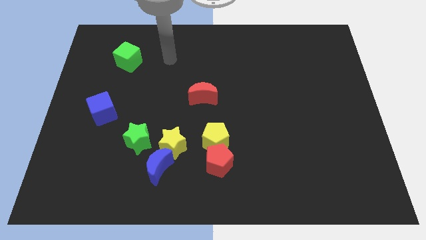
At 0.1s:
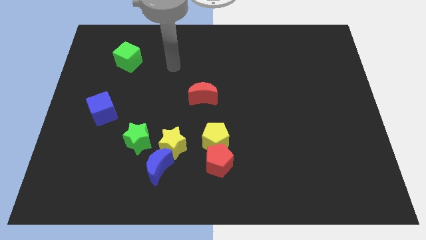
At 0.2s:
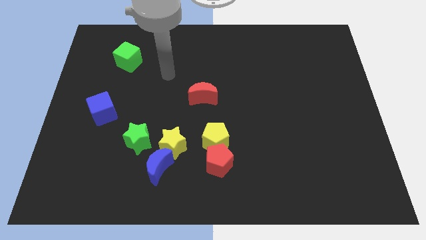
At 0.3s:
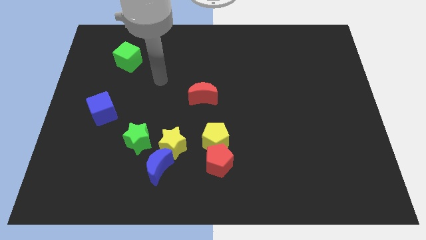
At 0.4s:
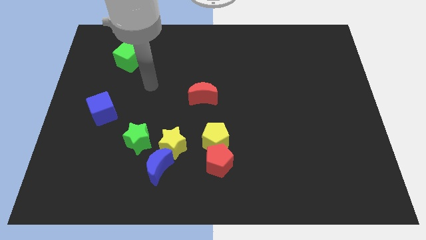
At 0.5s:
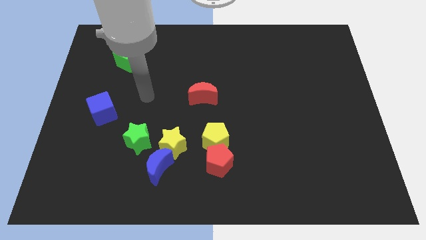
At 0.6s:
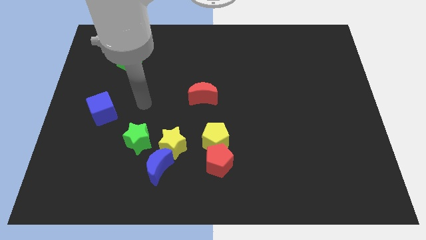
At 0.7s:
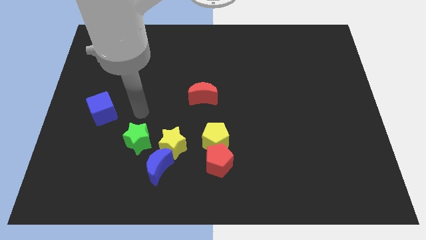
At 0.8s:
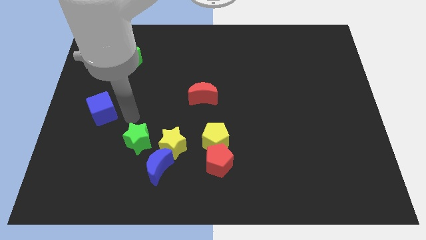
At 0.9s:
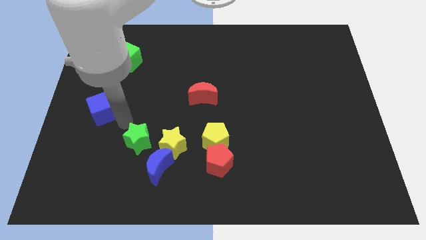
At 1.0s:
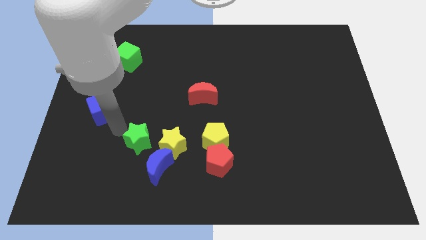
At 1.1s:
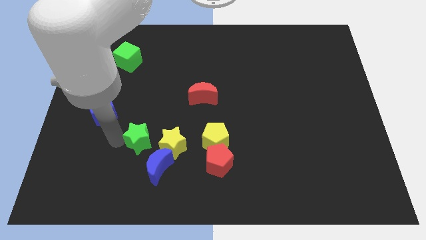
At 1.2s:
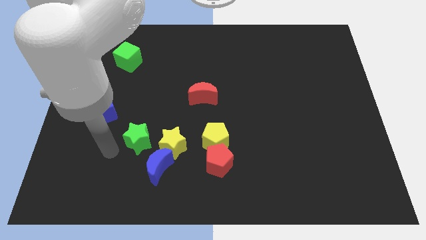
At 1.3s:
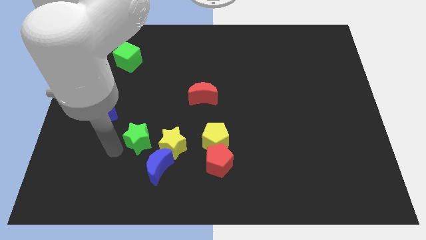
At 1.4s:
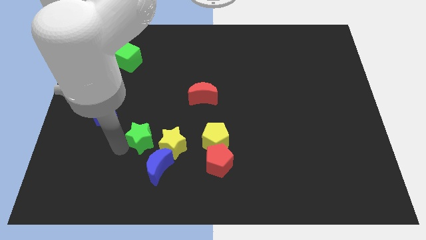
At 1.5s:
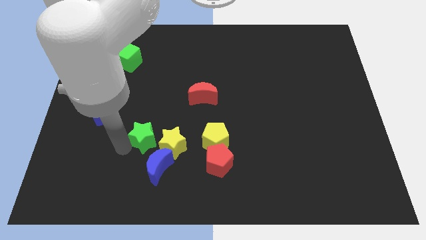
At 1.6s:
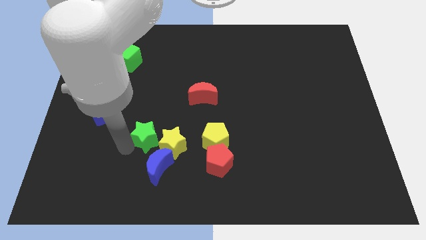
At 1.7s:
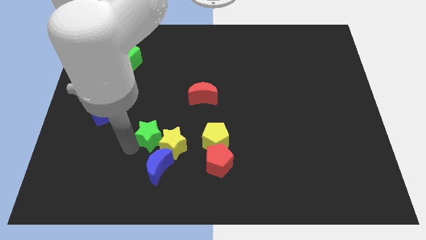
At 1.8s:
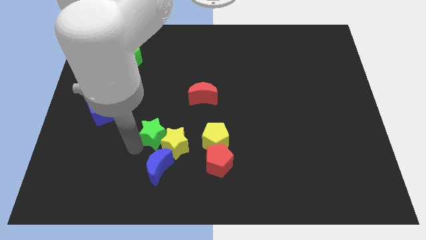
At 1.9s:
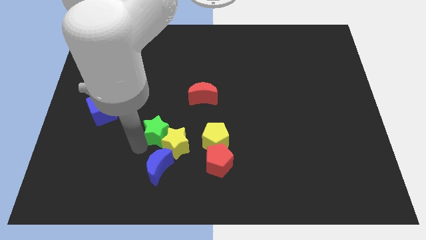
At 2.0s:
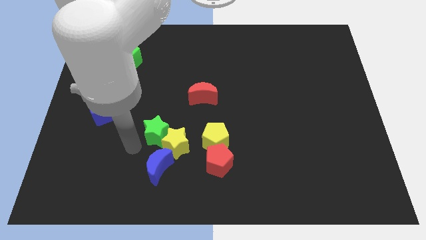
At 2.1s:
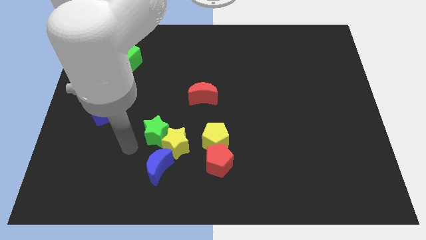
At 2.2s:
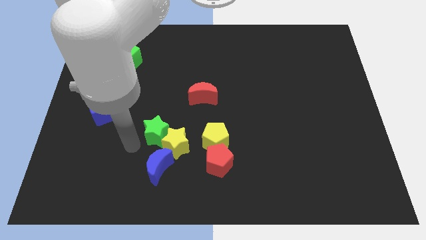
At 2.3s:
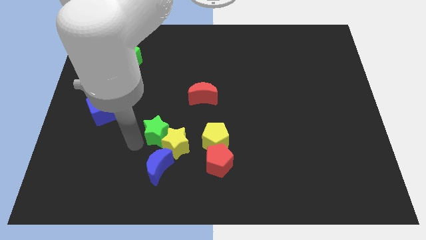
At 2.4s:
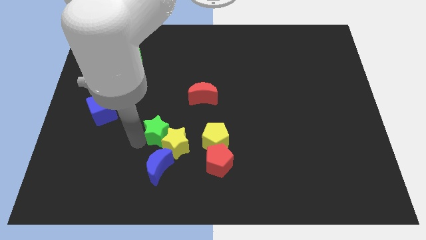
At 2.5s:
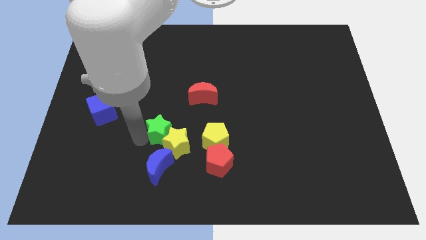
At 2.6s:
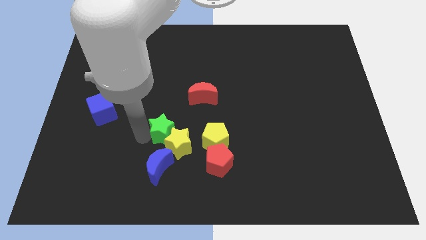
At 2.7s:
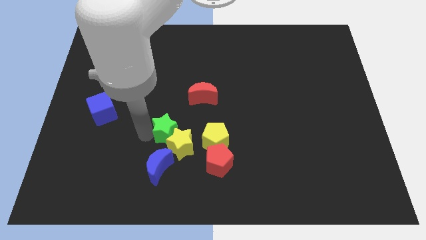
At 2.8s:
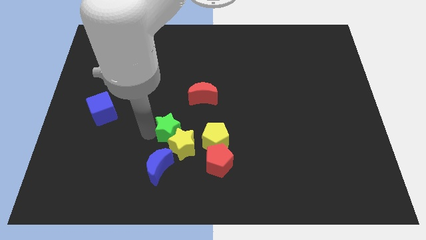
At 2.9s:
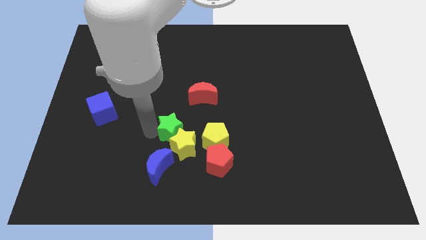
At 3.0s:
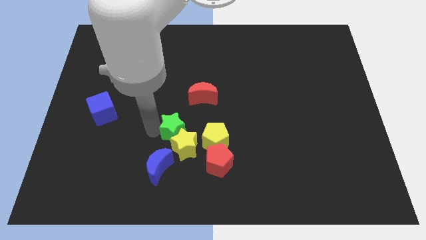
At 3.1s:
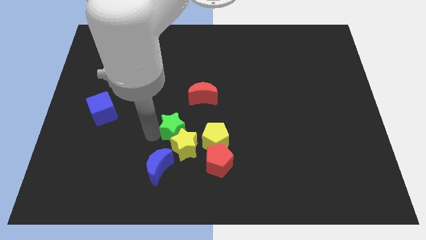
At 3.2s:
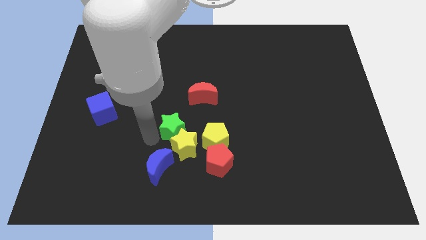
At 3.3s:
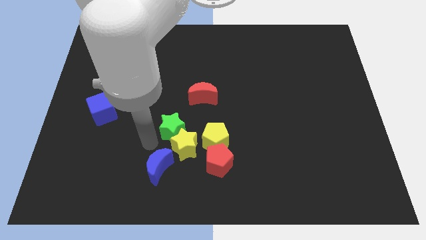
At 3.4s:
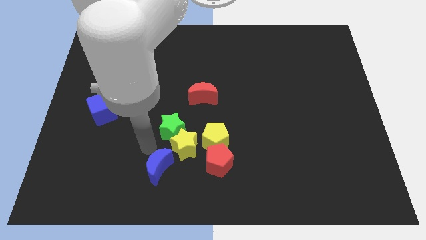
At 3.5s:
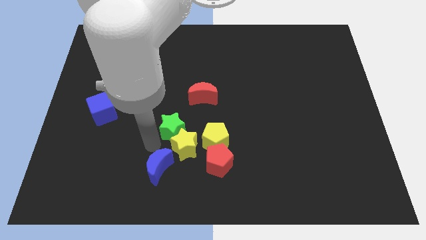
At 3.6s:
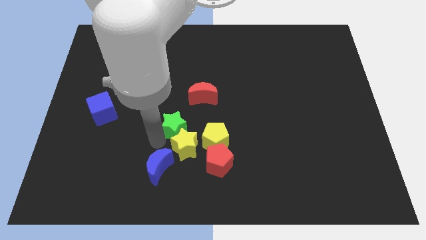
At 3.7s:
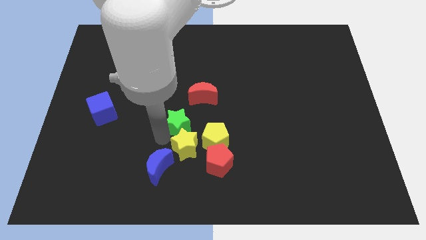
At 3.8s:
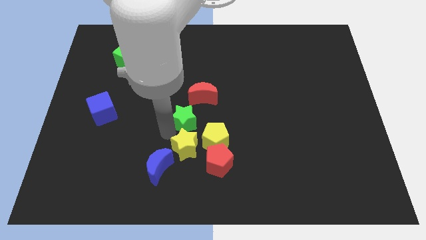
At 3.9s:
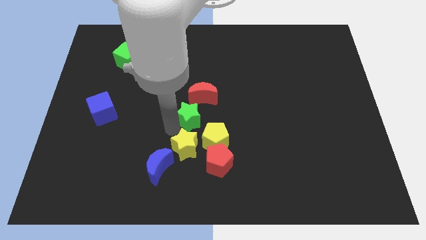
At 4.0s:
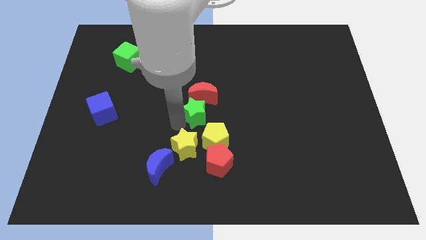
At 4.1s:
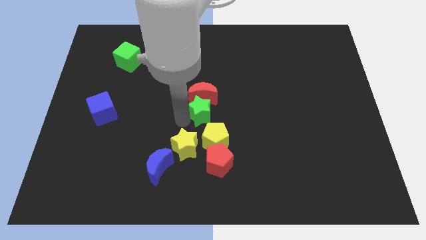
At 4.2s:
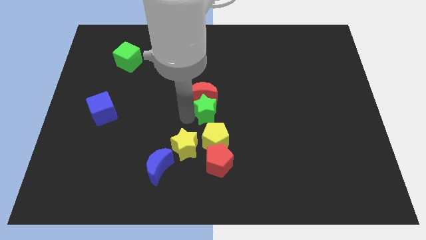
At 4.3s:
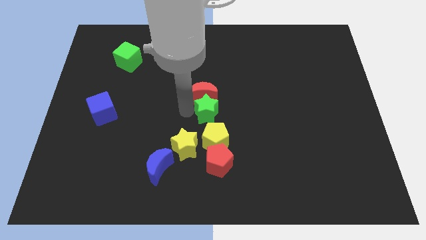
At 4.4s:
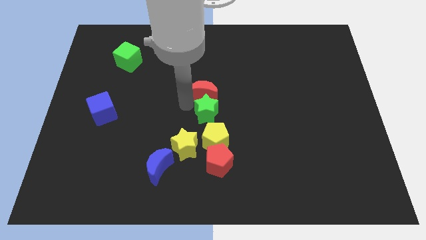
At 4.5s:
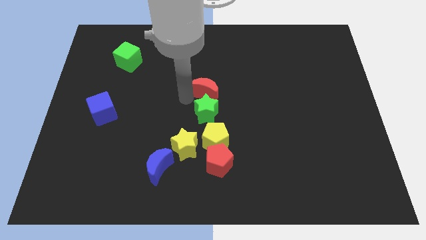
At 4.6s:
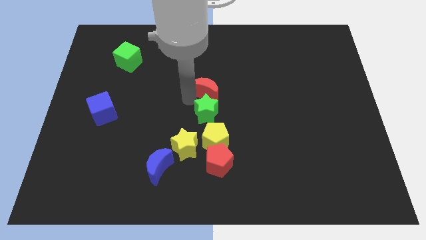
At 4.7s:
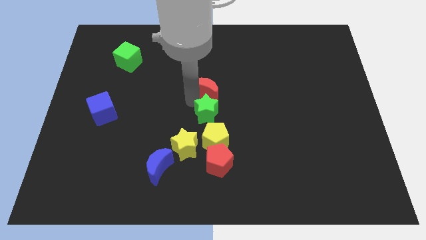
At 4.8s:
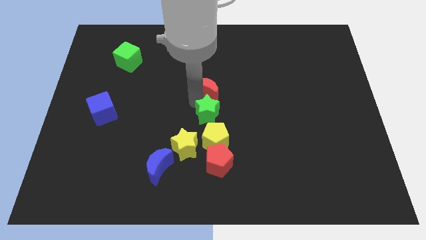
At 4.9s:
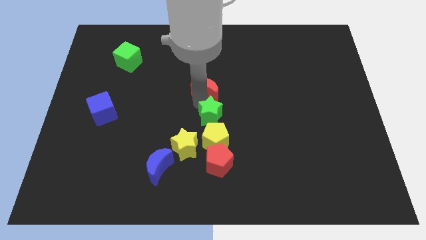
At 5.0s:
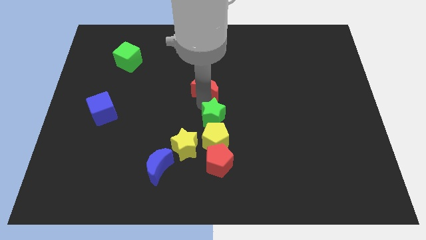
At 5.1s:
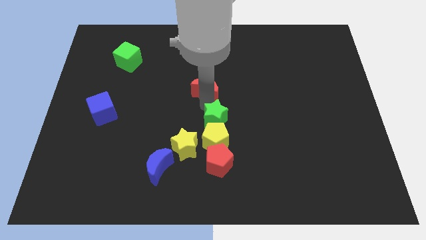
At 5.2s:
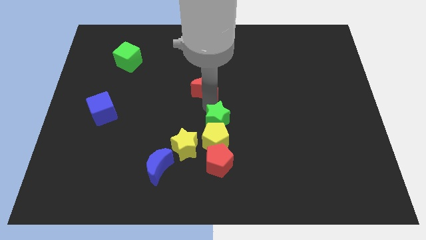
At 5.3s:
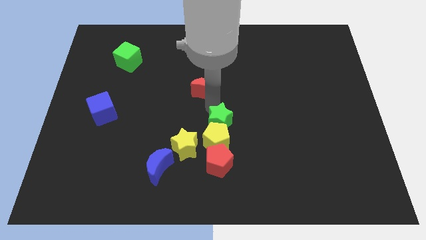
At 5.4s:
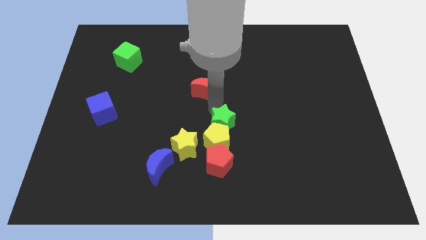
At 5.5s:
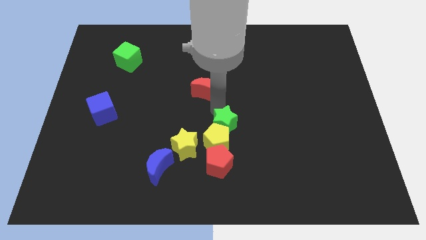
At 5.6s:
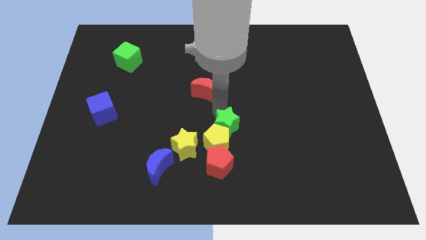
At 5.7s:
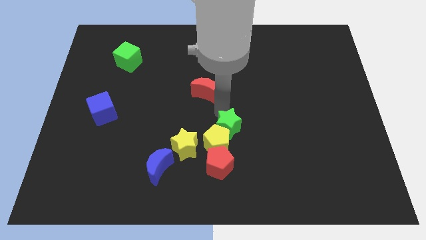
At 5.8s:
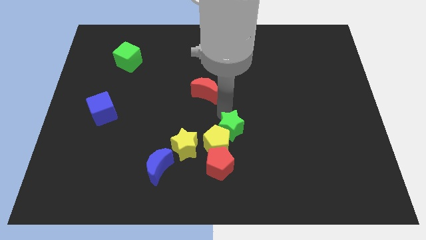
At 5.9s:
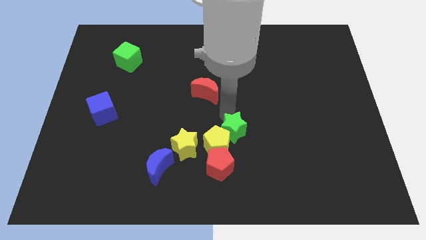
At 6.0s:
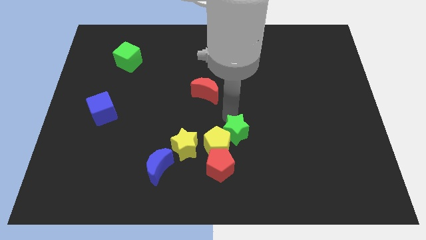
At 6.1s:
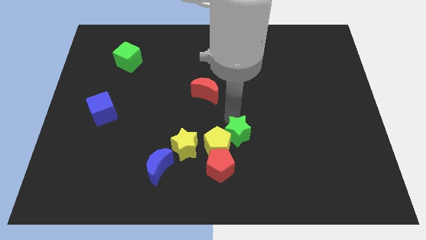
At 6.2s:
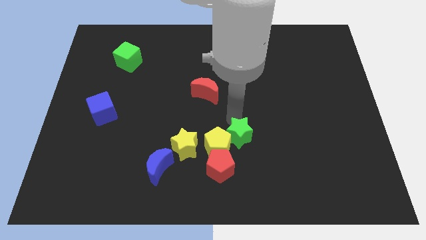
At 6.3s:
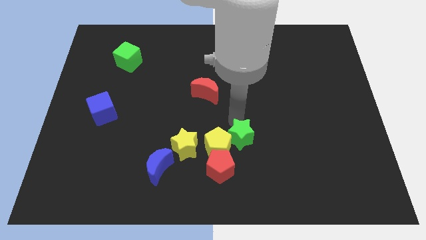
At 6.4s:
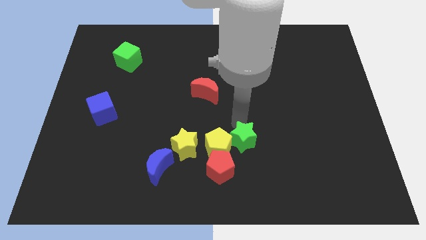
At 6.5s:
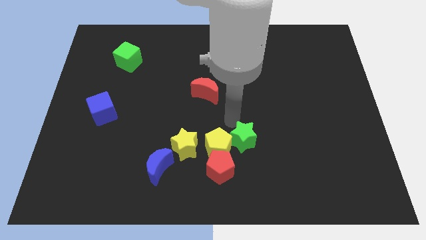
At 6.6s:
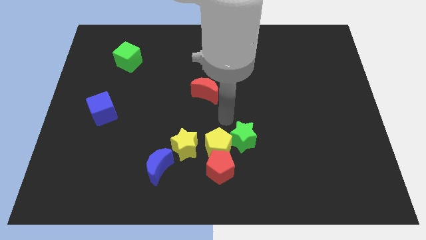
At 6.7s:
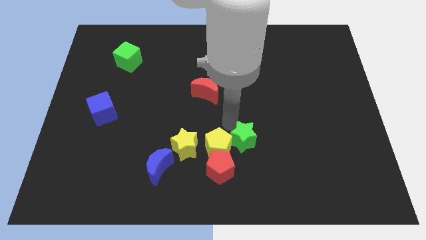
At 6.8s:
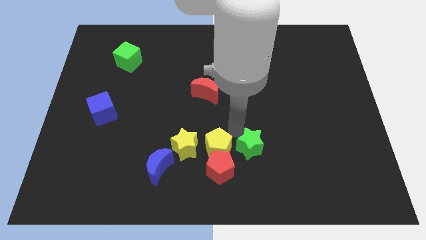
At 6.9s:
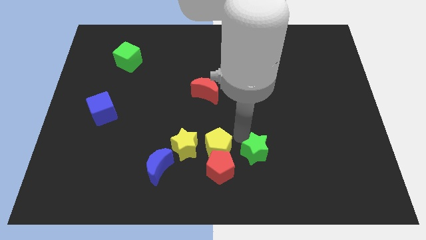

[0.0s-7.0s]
put the green star to the right of the red pentagon

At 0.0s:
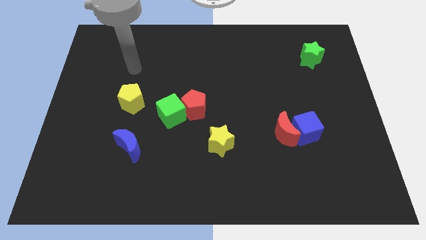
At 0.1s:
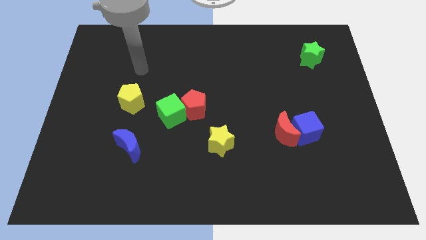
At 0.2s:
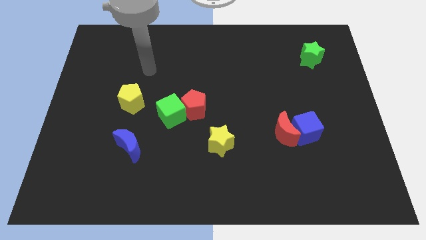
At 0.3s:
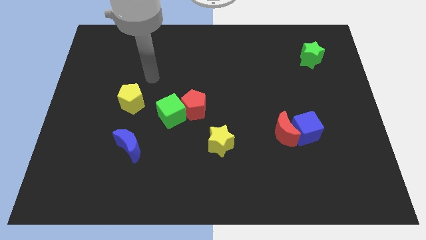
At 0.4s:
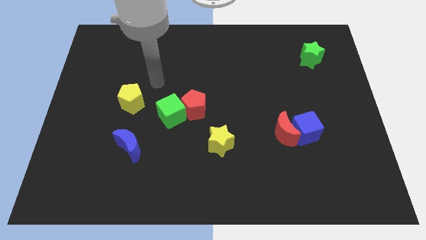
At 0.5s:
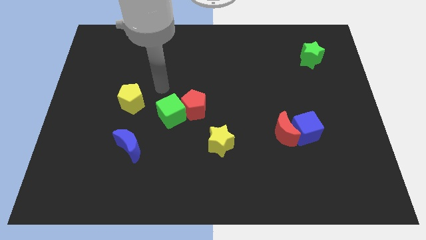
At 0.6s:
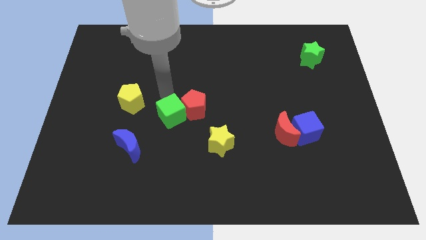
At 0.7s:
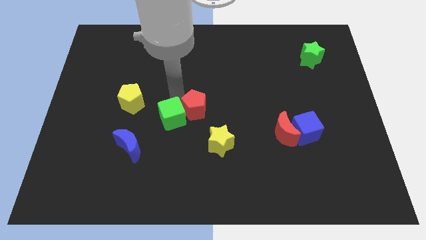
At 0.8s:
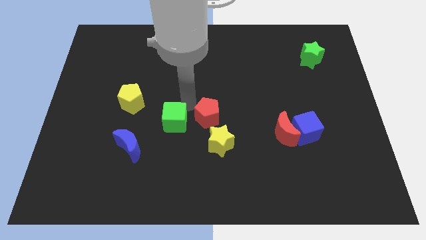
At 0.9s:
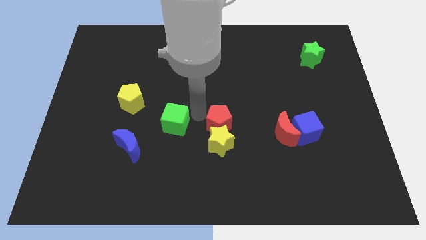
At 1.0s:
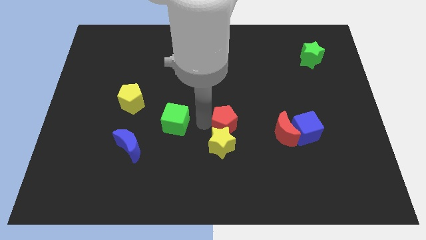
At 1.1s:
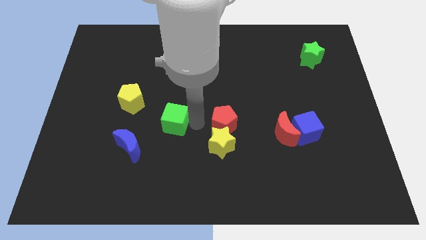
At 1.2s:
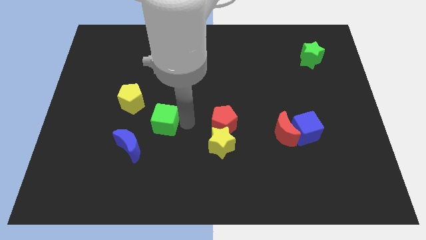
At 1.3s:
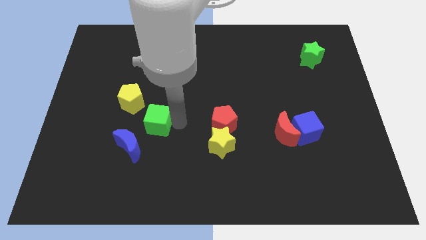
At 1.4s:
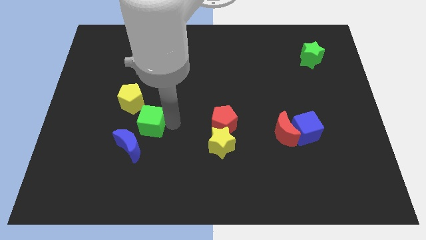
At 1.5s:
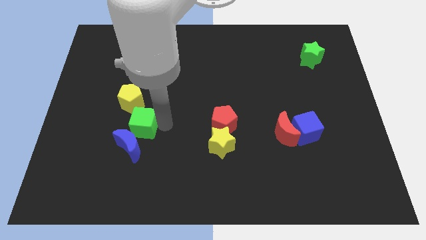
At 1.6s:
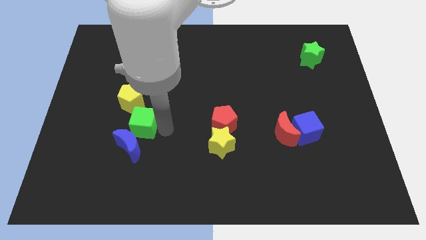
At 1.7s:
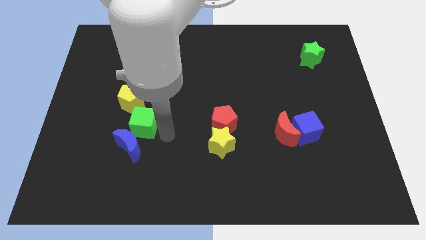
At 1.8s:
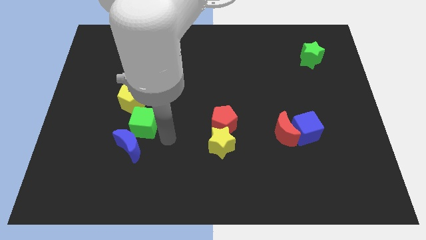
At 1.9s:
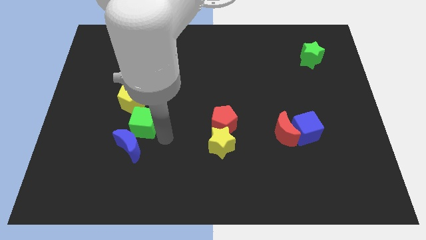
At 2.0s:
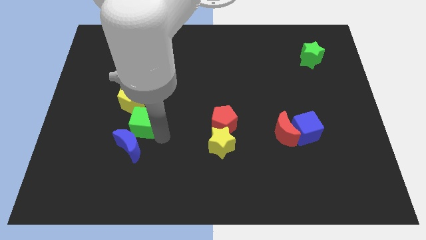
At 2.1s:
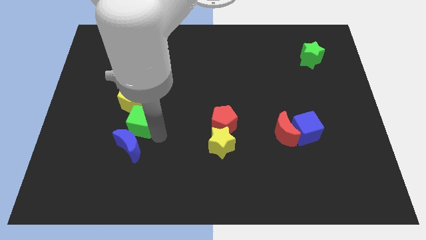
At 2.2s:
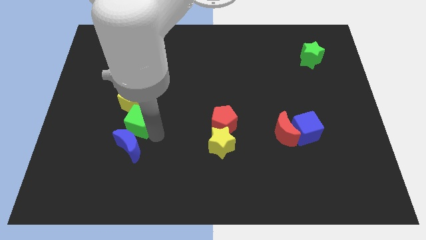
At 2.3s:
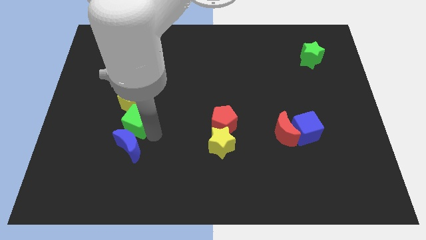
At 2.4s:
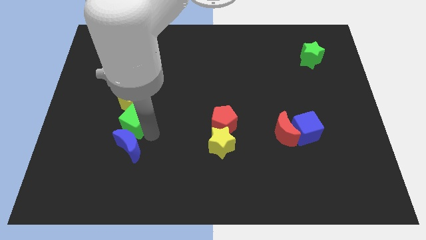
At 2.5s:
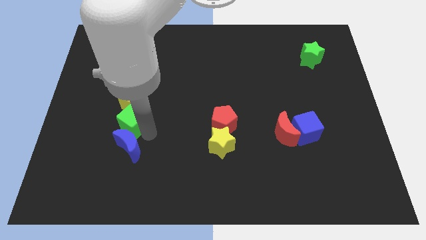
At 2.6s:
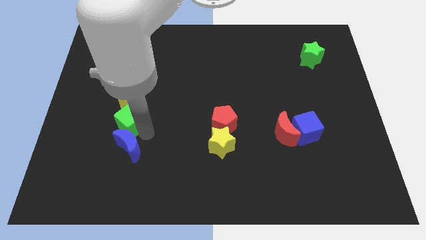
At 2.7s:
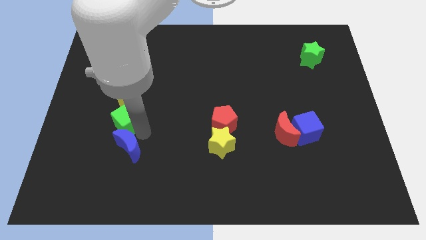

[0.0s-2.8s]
slide the green cube diagonally down and to the left of the yellow pentagon
